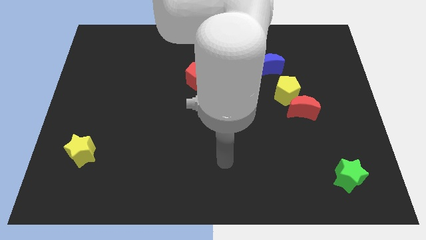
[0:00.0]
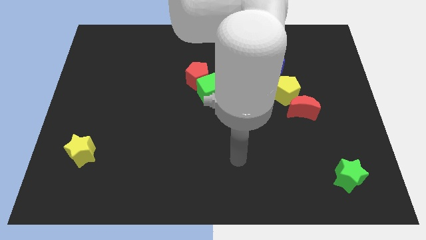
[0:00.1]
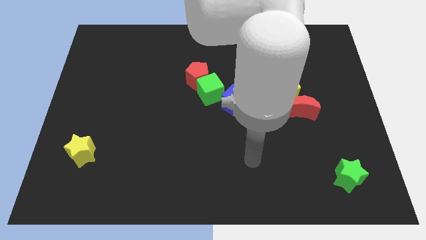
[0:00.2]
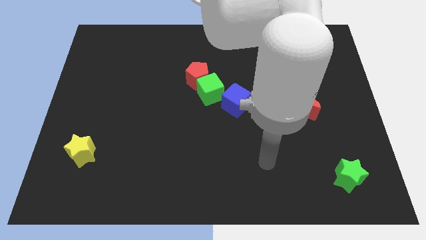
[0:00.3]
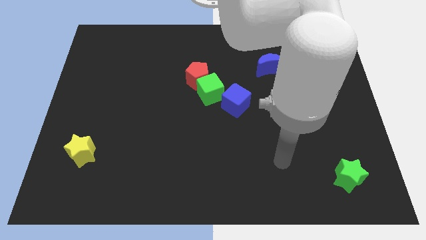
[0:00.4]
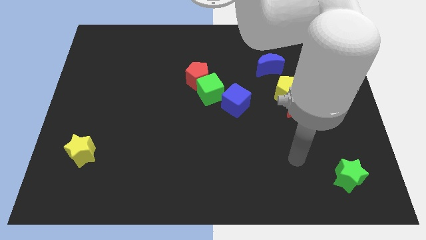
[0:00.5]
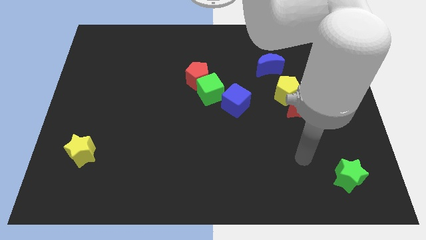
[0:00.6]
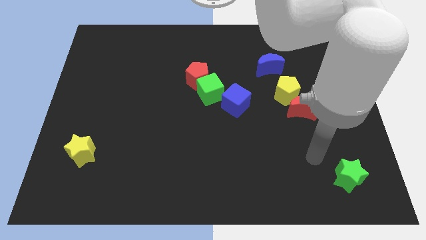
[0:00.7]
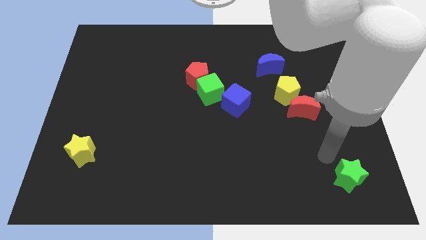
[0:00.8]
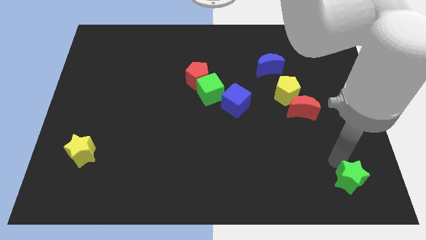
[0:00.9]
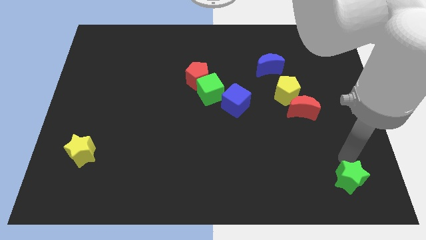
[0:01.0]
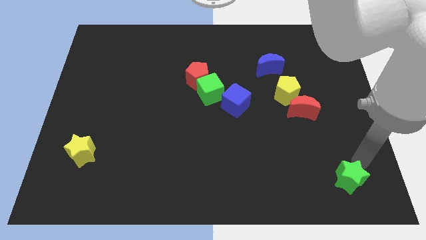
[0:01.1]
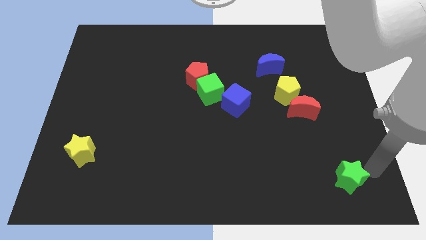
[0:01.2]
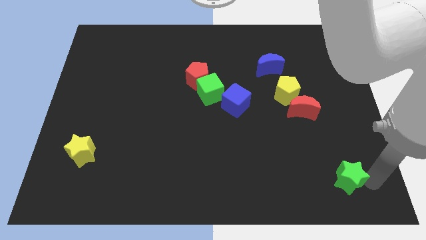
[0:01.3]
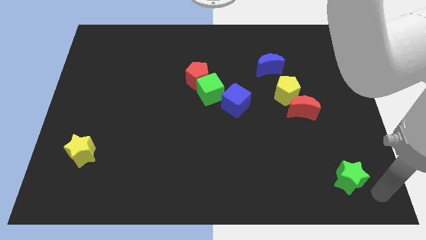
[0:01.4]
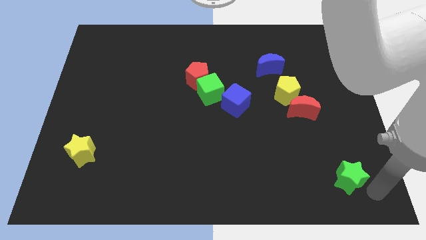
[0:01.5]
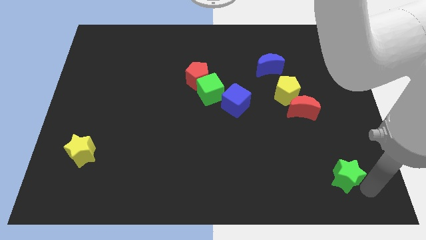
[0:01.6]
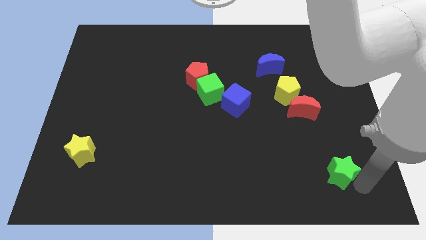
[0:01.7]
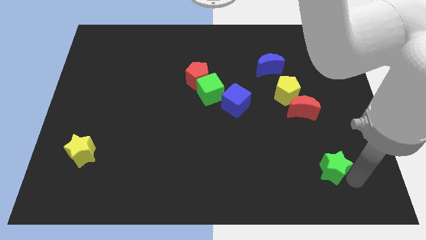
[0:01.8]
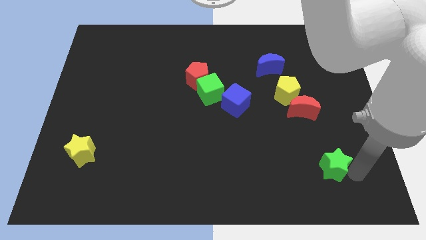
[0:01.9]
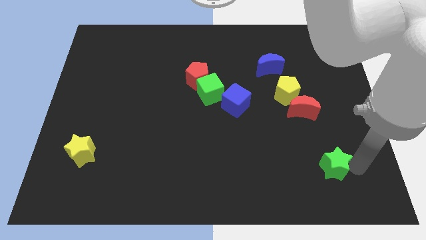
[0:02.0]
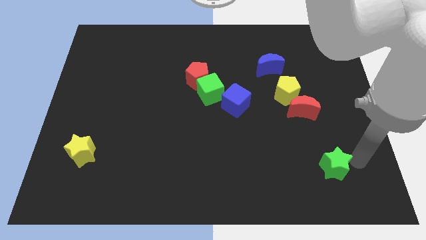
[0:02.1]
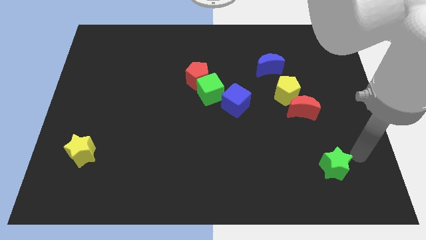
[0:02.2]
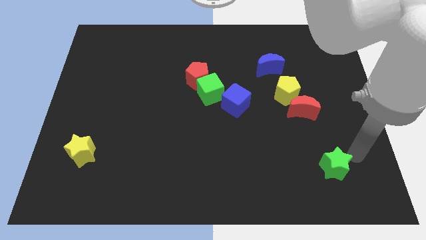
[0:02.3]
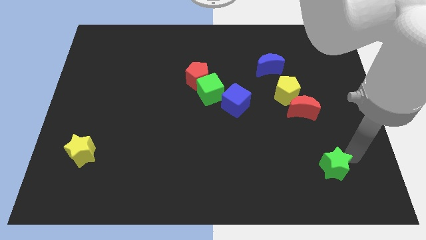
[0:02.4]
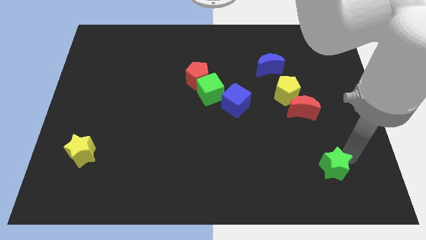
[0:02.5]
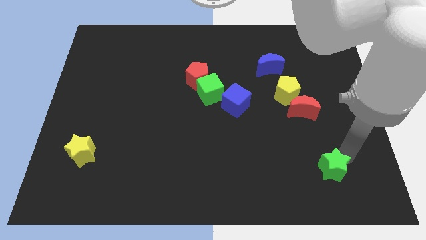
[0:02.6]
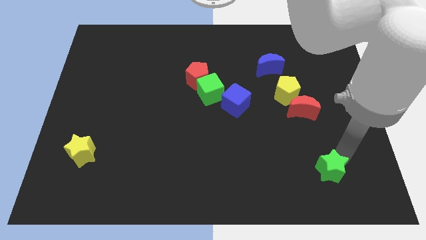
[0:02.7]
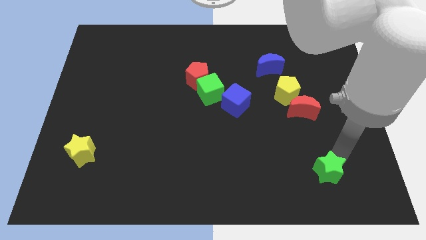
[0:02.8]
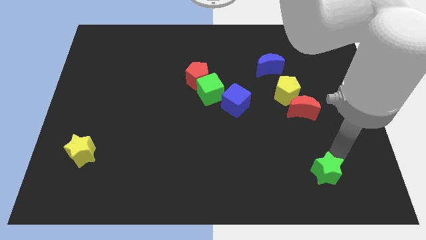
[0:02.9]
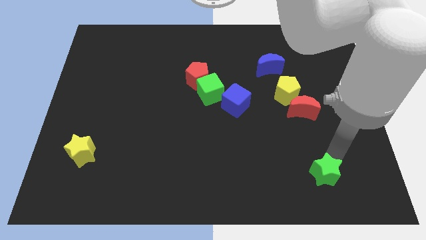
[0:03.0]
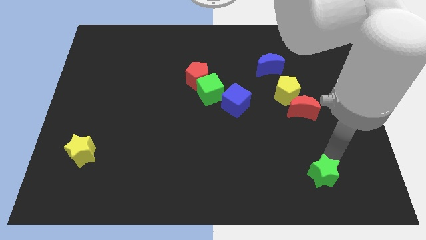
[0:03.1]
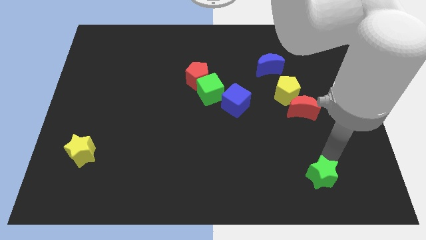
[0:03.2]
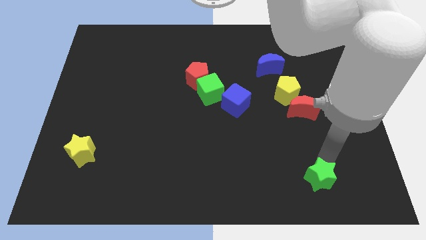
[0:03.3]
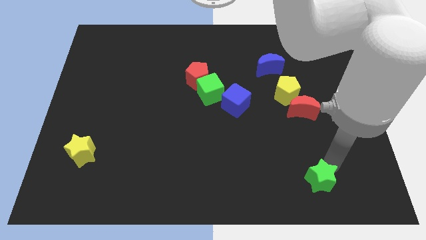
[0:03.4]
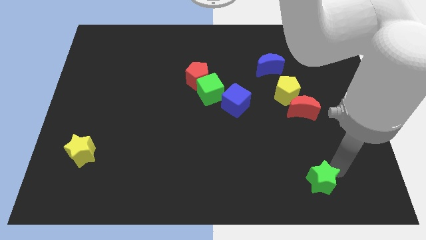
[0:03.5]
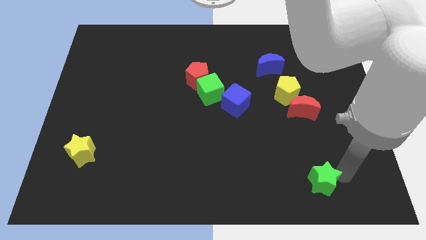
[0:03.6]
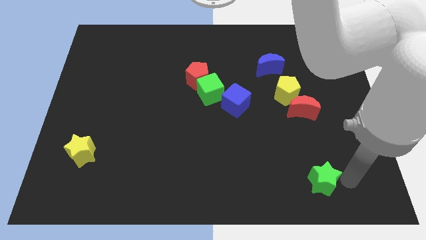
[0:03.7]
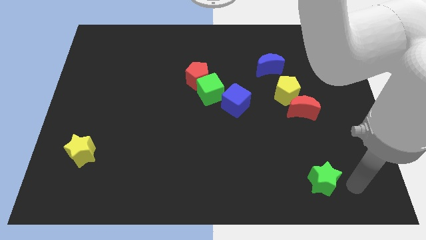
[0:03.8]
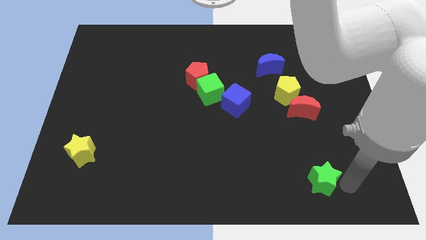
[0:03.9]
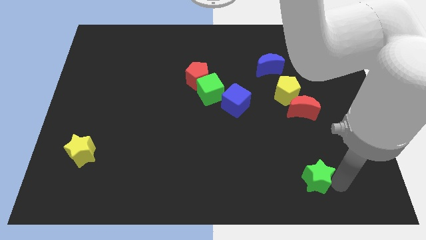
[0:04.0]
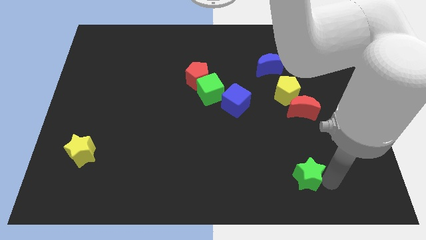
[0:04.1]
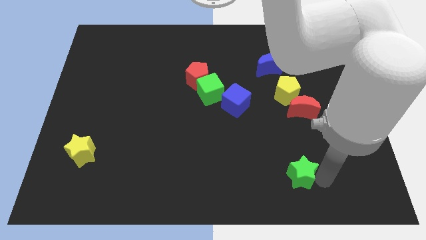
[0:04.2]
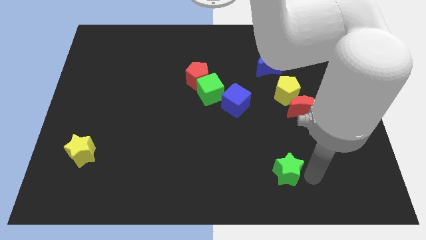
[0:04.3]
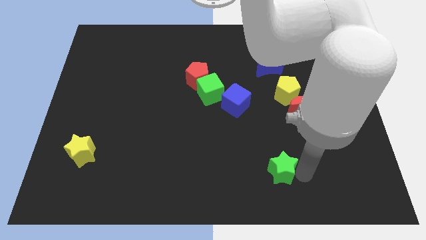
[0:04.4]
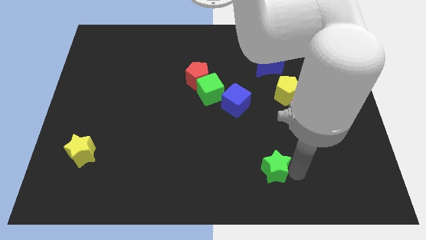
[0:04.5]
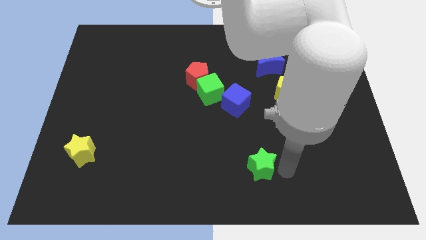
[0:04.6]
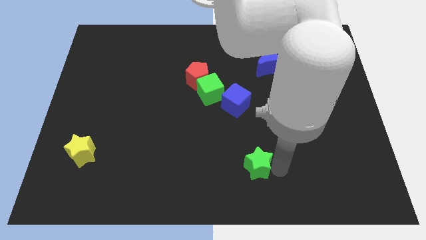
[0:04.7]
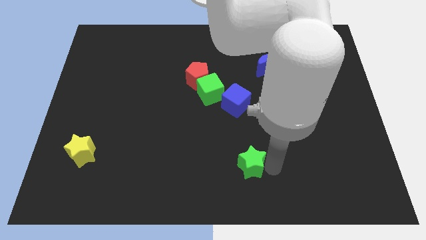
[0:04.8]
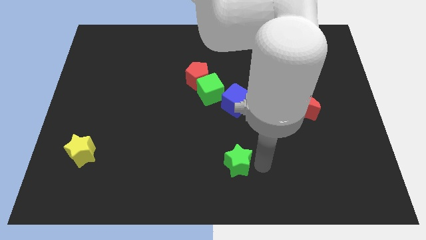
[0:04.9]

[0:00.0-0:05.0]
slide the green star left

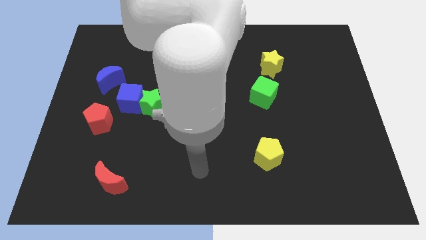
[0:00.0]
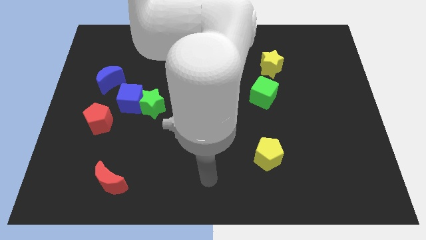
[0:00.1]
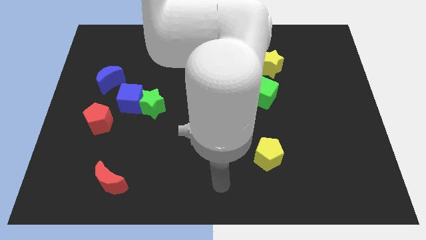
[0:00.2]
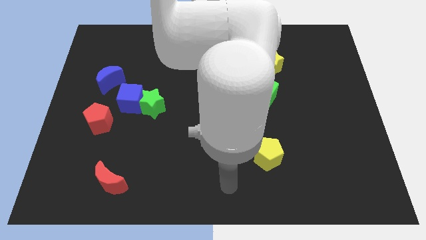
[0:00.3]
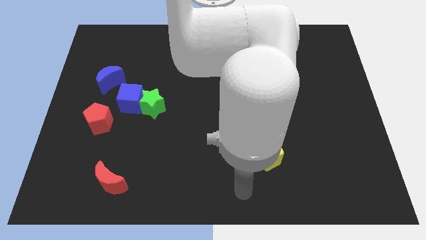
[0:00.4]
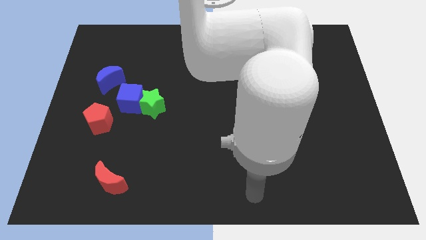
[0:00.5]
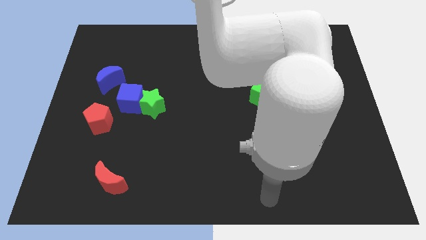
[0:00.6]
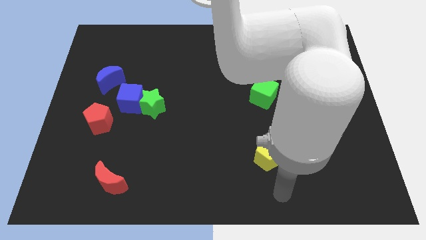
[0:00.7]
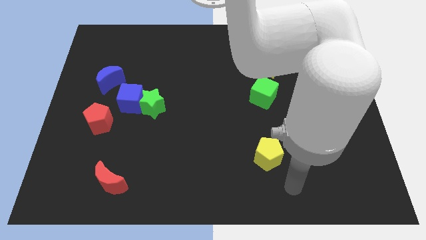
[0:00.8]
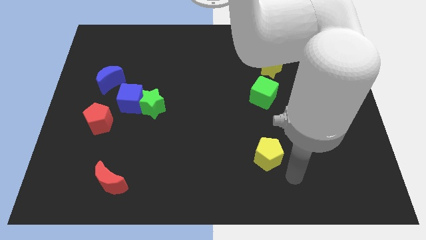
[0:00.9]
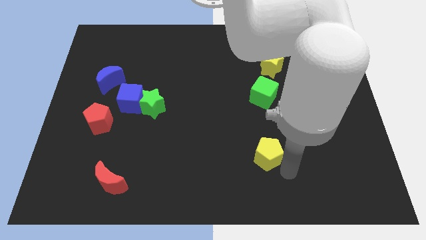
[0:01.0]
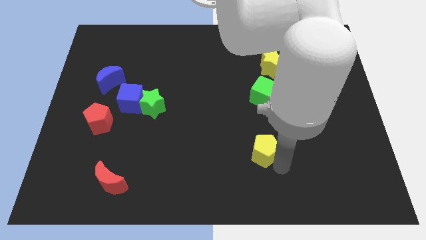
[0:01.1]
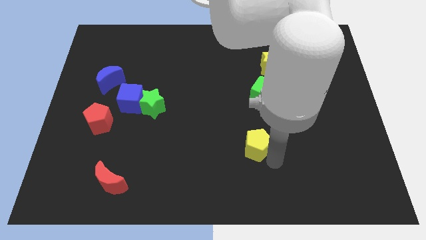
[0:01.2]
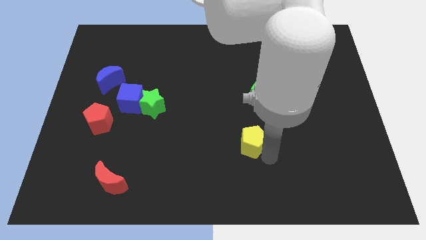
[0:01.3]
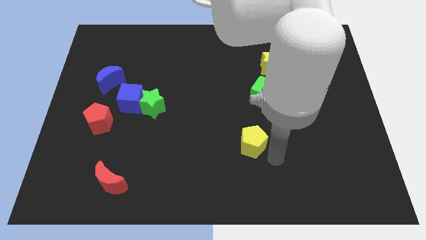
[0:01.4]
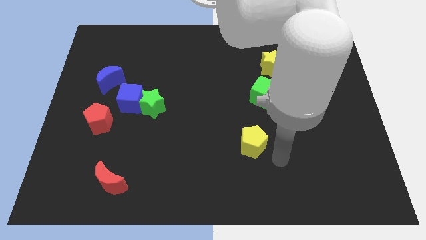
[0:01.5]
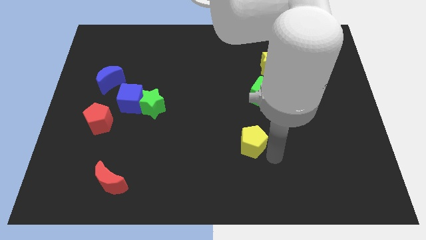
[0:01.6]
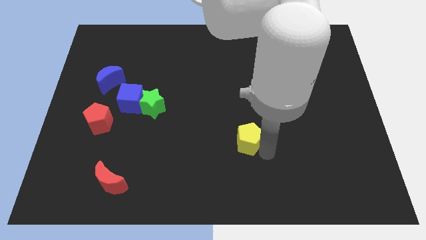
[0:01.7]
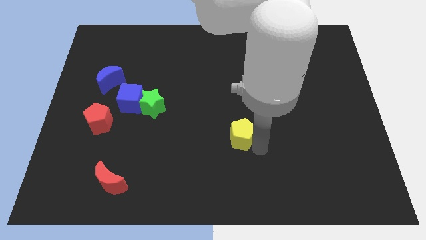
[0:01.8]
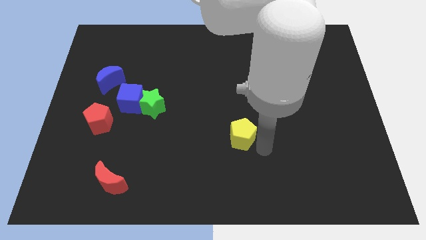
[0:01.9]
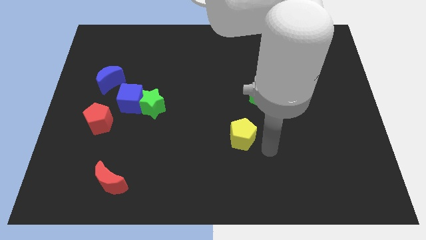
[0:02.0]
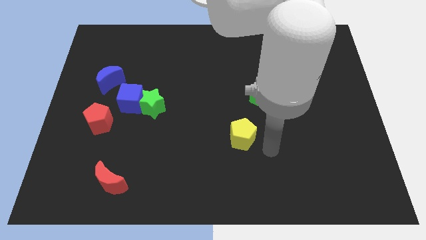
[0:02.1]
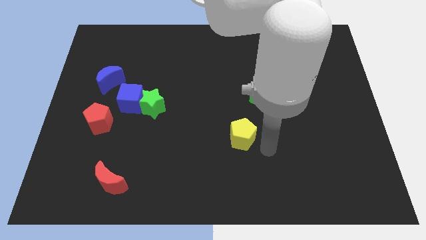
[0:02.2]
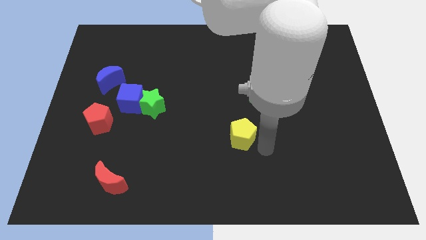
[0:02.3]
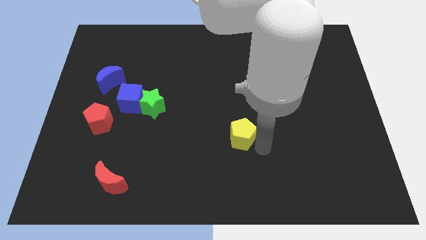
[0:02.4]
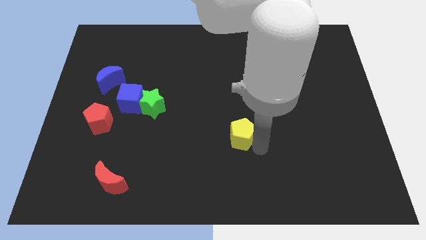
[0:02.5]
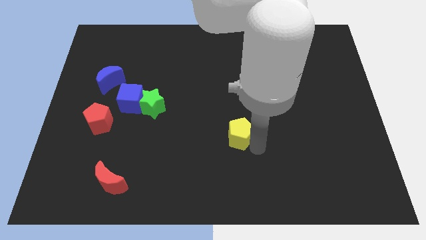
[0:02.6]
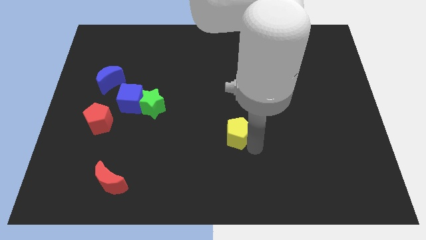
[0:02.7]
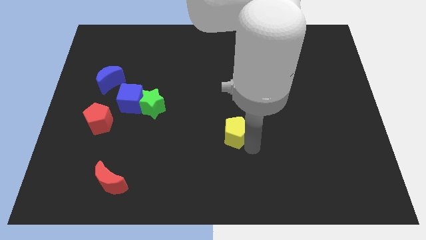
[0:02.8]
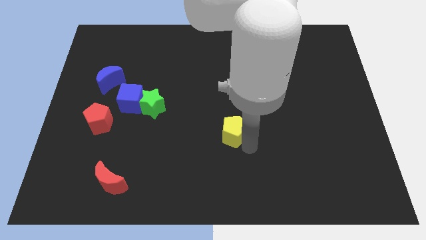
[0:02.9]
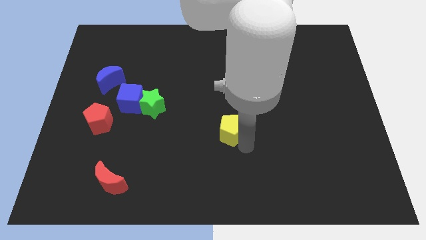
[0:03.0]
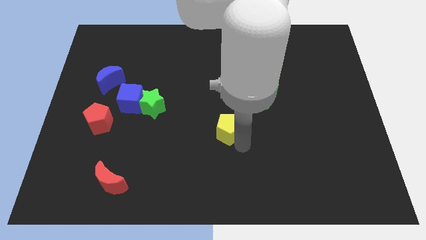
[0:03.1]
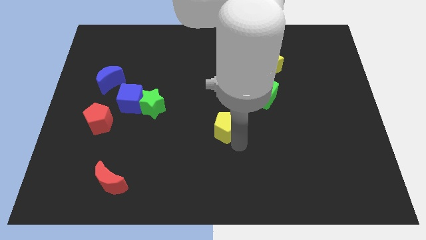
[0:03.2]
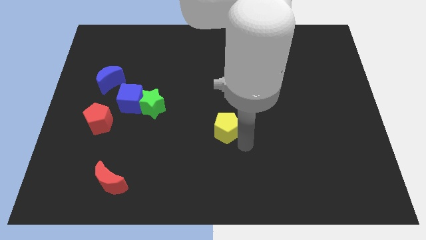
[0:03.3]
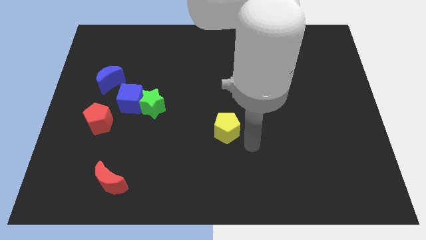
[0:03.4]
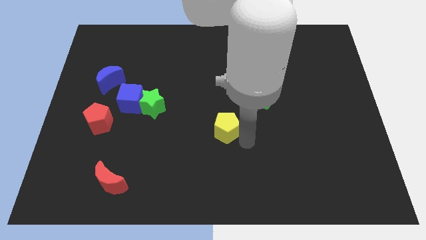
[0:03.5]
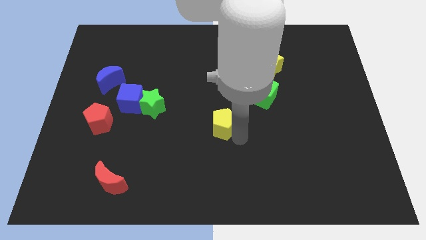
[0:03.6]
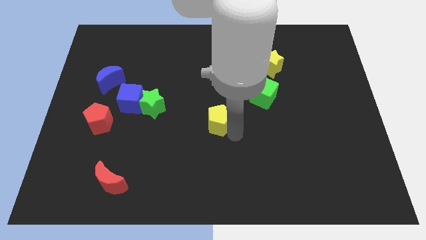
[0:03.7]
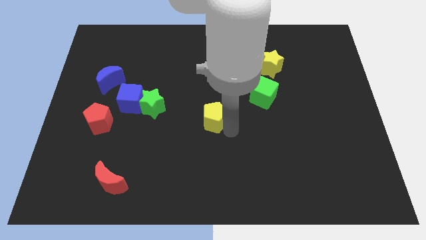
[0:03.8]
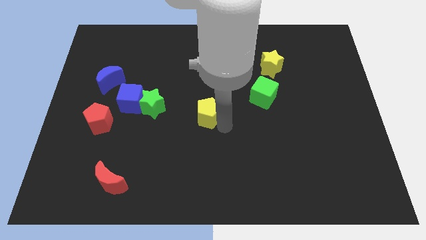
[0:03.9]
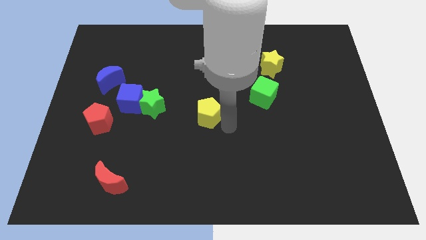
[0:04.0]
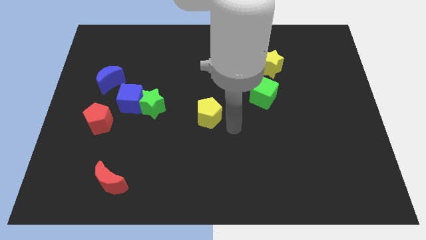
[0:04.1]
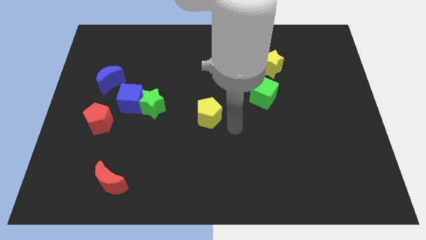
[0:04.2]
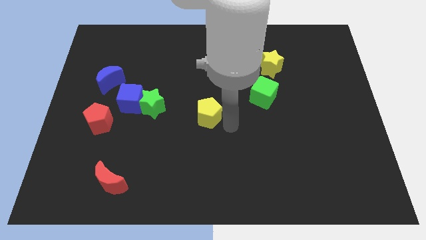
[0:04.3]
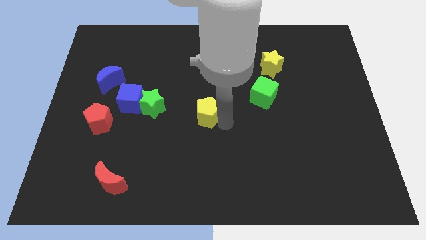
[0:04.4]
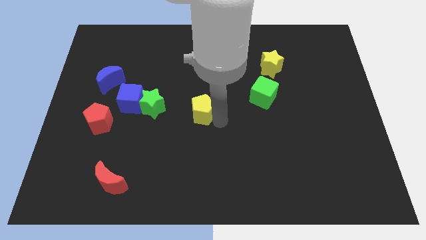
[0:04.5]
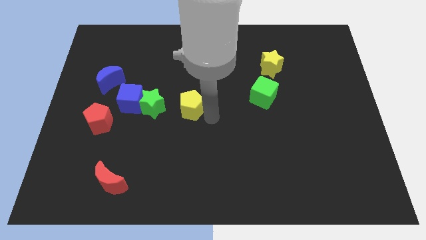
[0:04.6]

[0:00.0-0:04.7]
move the yellow pentagon upwards and to the left
